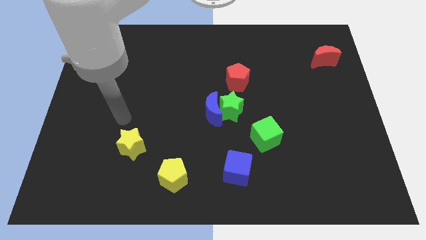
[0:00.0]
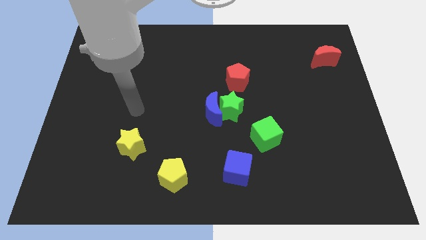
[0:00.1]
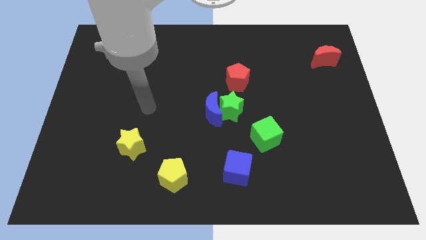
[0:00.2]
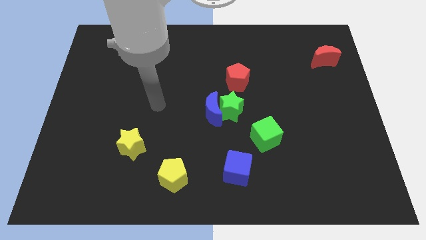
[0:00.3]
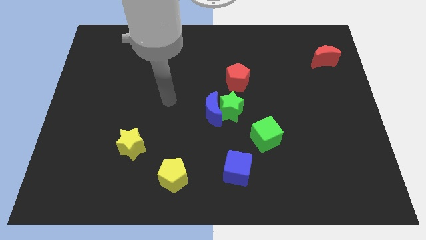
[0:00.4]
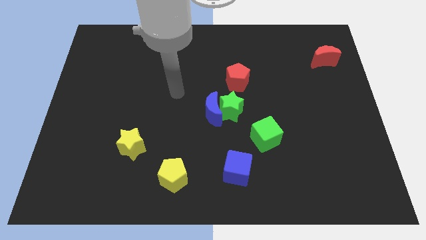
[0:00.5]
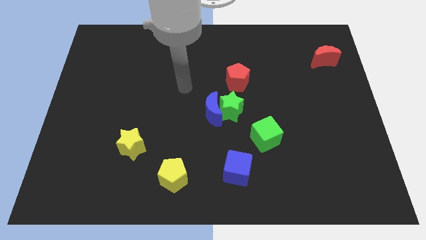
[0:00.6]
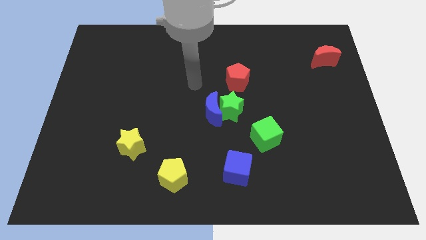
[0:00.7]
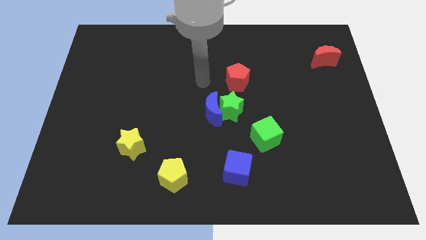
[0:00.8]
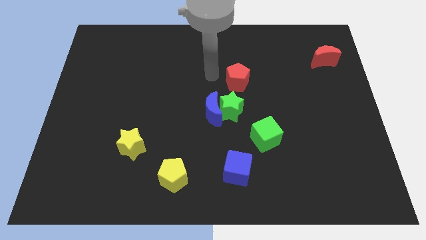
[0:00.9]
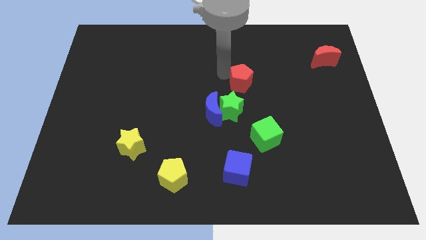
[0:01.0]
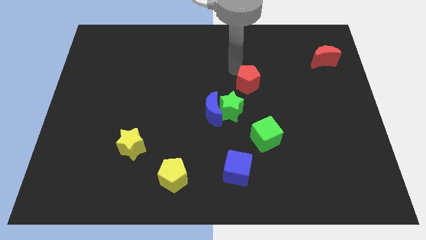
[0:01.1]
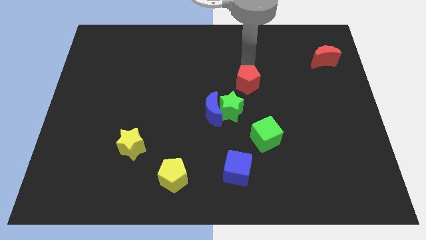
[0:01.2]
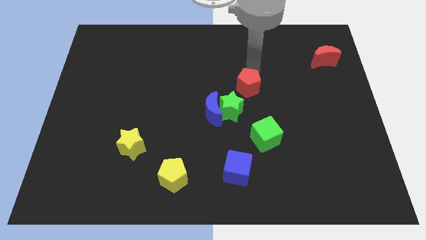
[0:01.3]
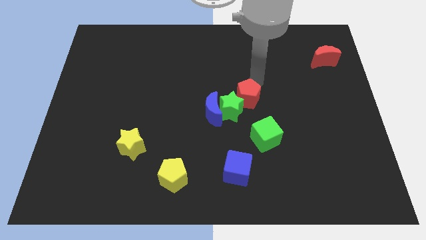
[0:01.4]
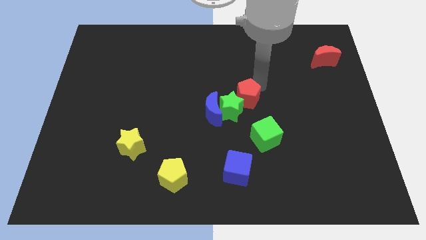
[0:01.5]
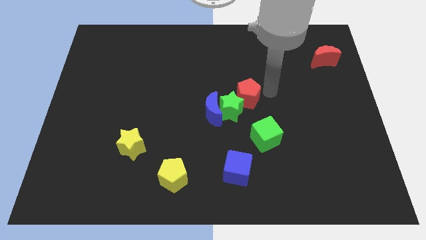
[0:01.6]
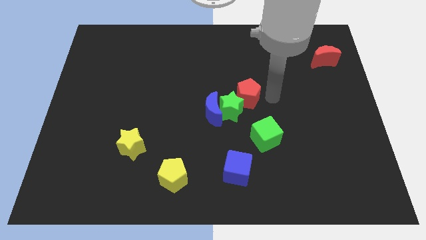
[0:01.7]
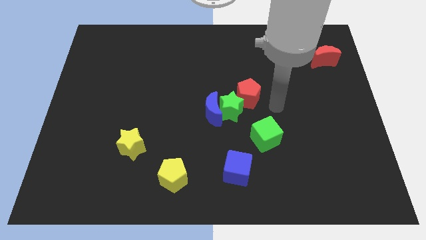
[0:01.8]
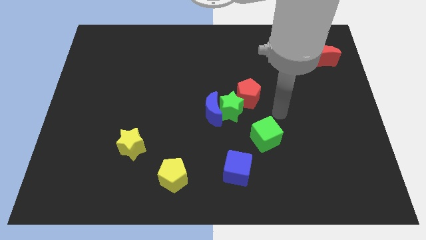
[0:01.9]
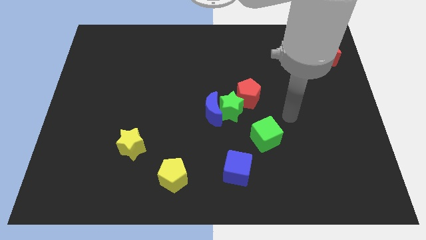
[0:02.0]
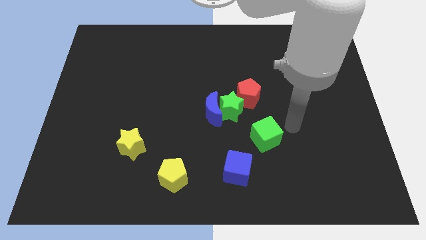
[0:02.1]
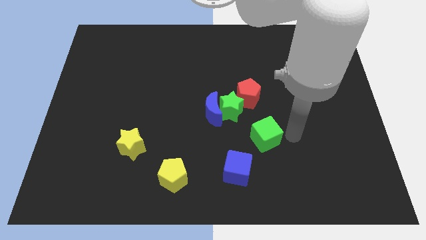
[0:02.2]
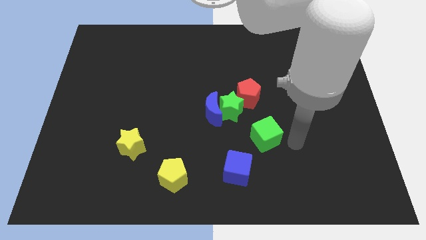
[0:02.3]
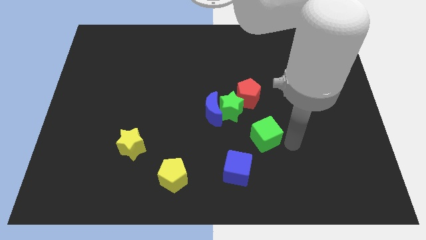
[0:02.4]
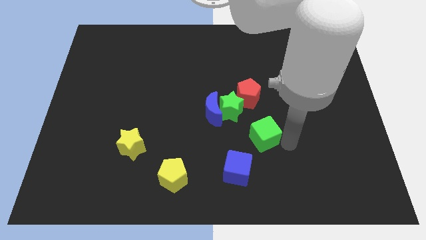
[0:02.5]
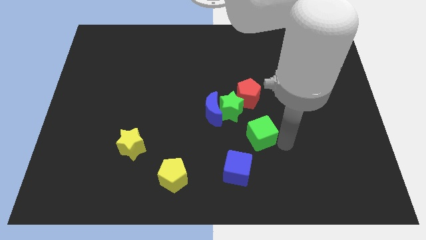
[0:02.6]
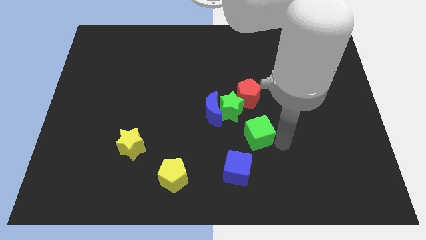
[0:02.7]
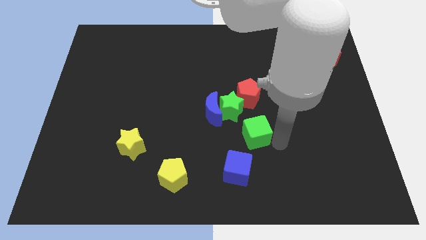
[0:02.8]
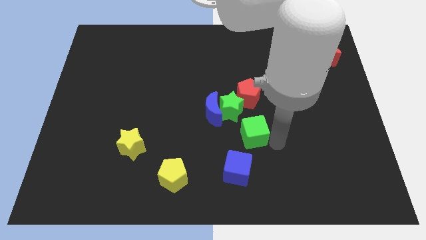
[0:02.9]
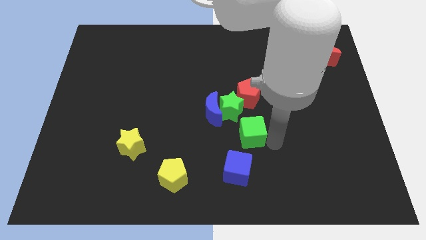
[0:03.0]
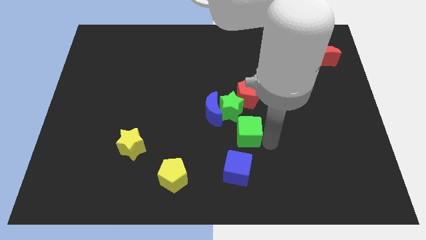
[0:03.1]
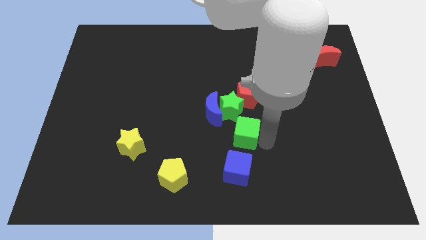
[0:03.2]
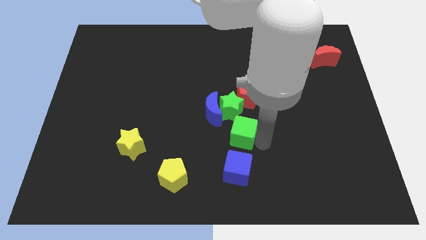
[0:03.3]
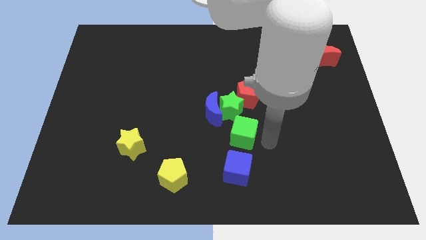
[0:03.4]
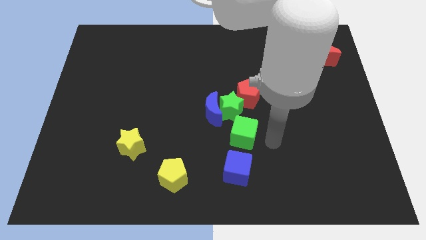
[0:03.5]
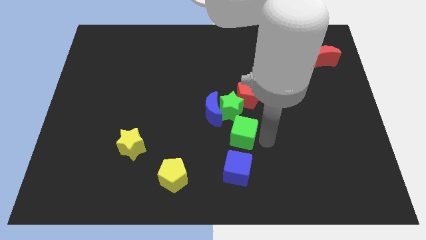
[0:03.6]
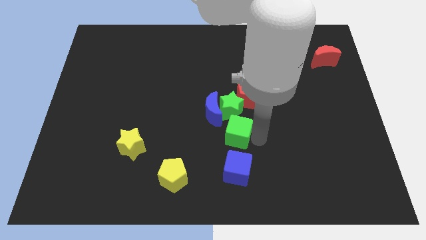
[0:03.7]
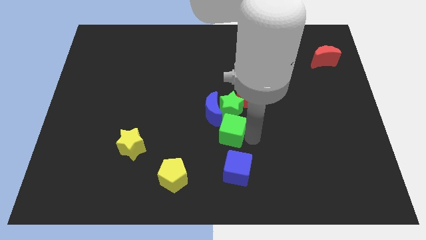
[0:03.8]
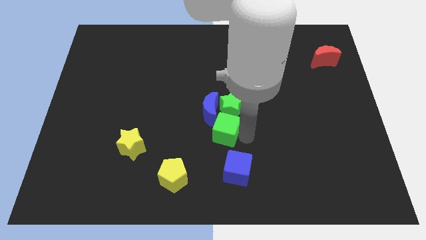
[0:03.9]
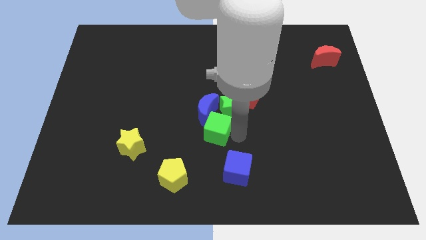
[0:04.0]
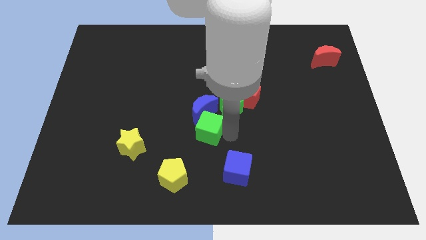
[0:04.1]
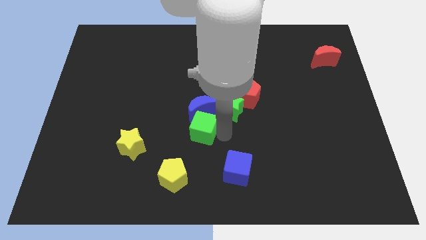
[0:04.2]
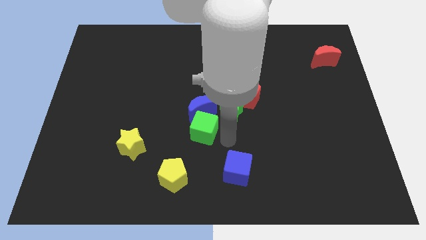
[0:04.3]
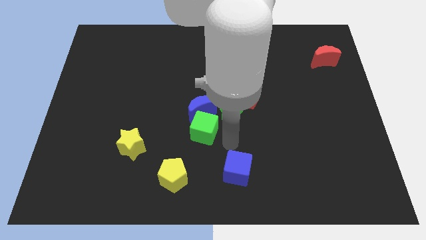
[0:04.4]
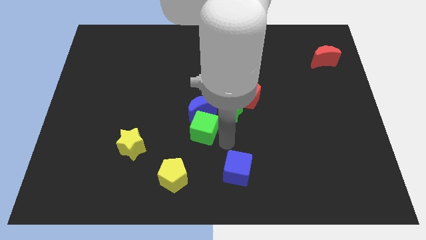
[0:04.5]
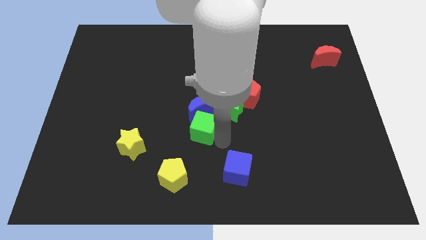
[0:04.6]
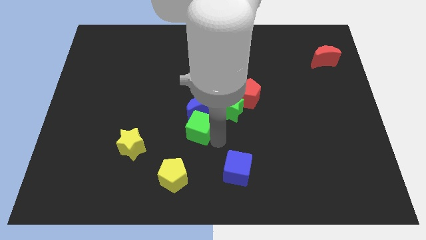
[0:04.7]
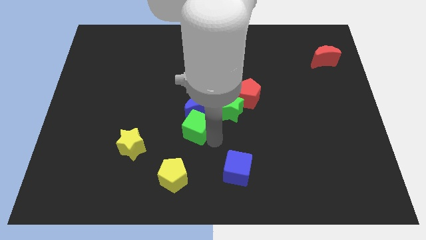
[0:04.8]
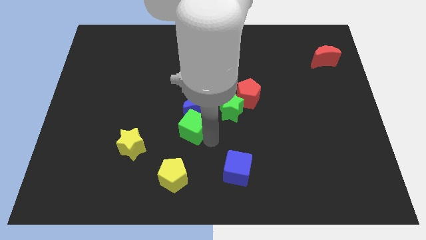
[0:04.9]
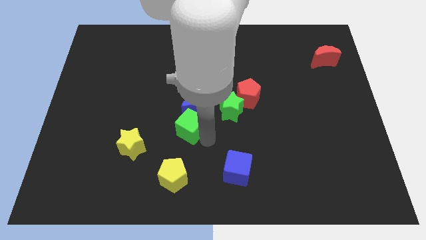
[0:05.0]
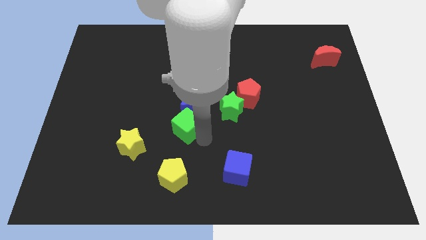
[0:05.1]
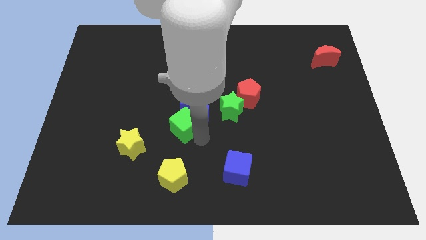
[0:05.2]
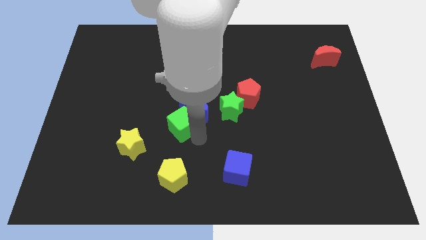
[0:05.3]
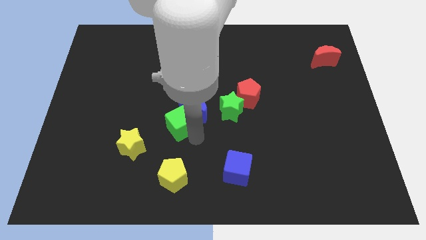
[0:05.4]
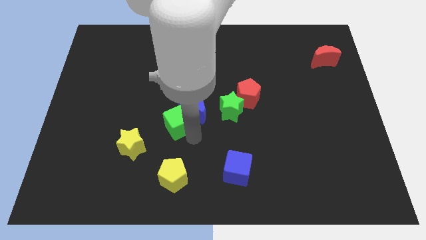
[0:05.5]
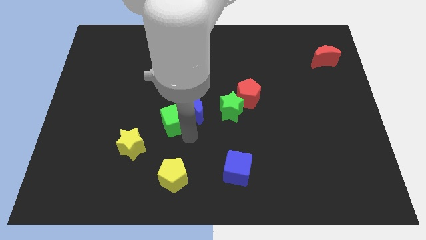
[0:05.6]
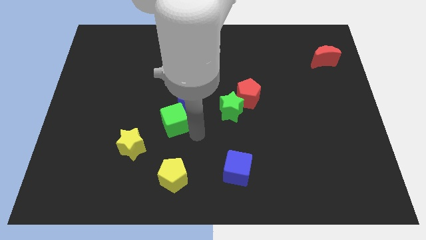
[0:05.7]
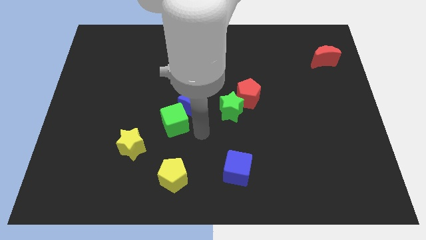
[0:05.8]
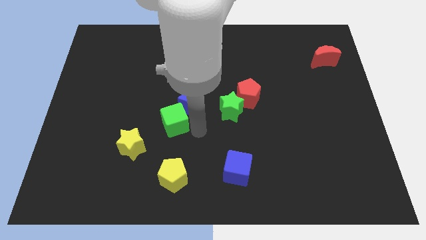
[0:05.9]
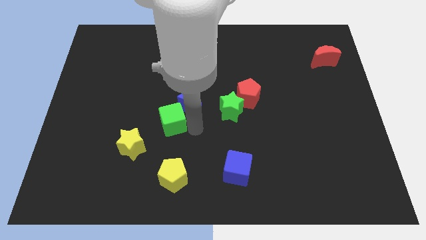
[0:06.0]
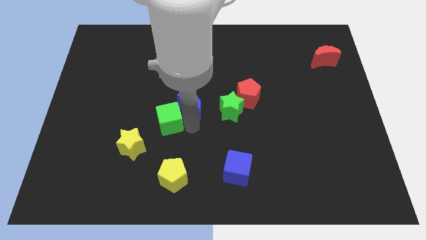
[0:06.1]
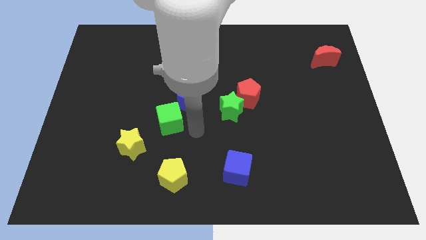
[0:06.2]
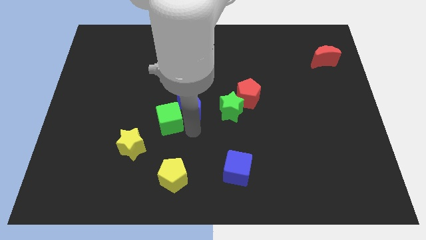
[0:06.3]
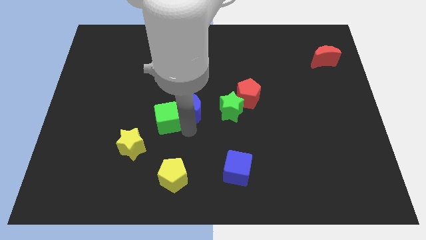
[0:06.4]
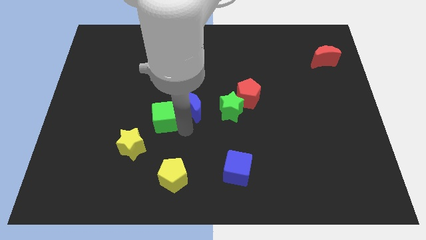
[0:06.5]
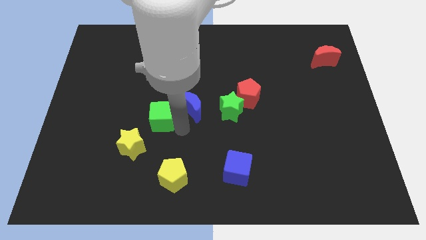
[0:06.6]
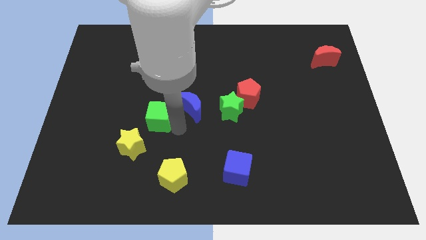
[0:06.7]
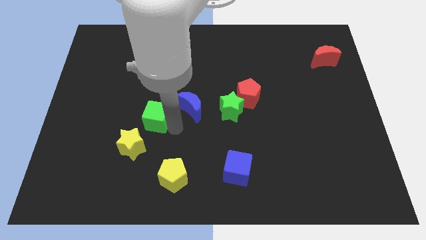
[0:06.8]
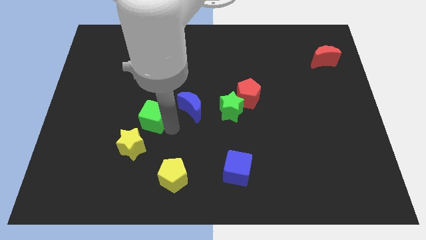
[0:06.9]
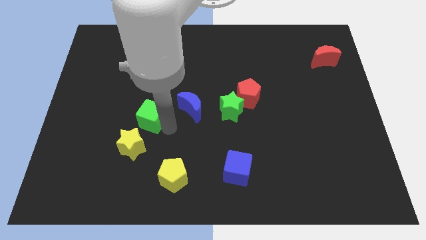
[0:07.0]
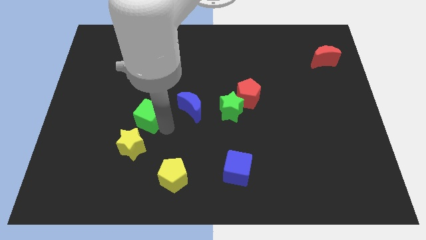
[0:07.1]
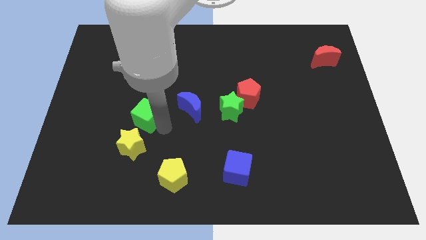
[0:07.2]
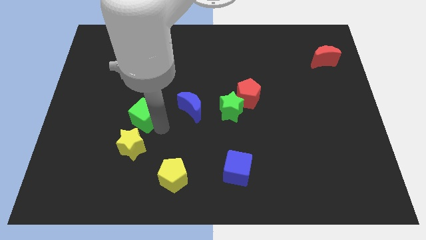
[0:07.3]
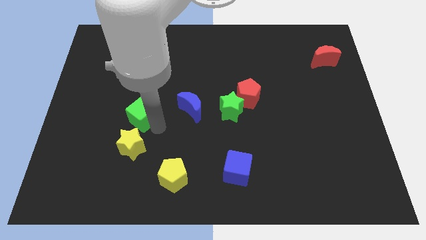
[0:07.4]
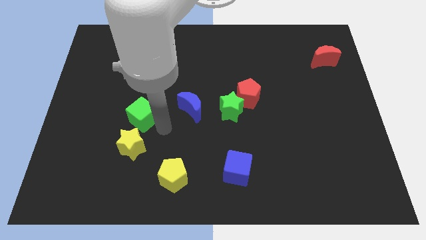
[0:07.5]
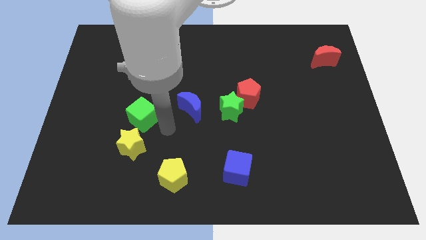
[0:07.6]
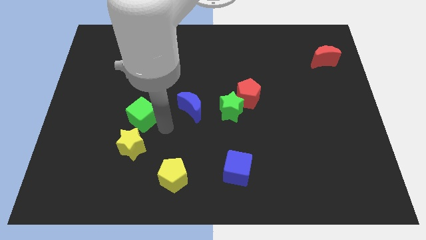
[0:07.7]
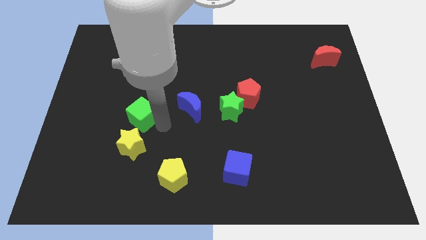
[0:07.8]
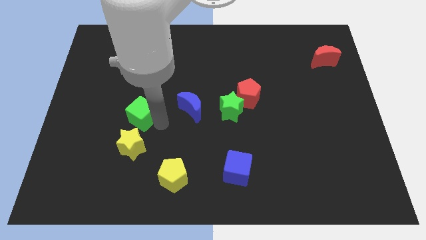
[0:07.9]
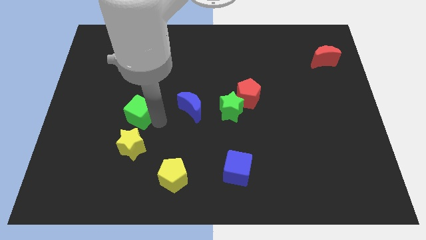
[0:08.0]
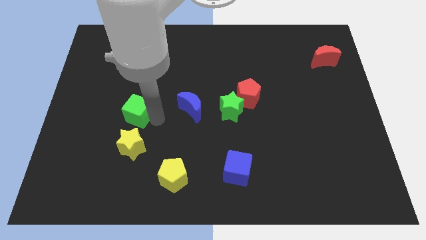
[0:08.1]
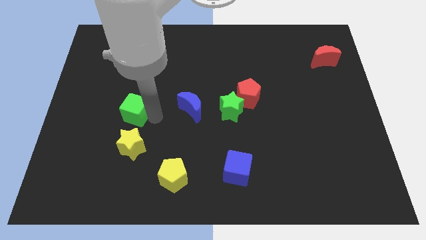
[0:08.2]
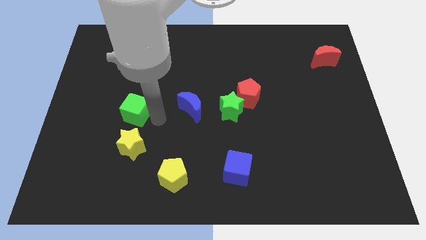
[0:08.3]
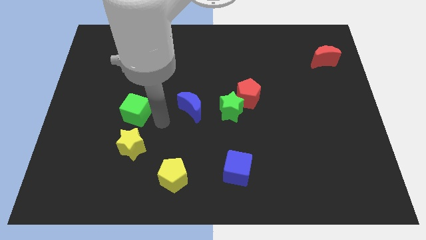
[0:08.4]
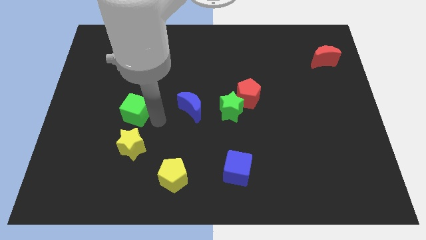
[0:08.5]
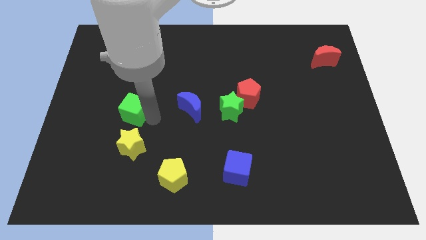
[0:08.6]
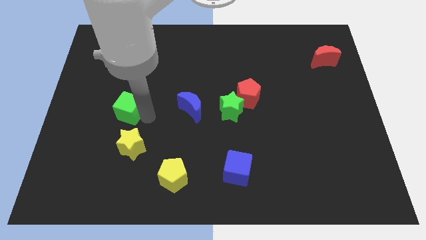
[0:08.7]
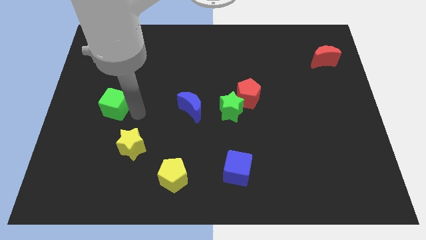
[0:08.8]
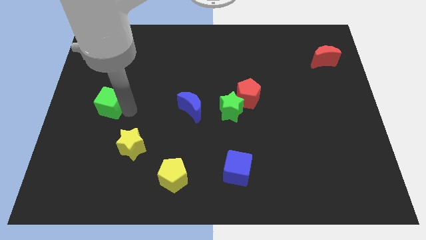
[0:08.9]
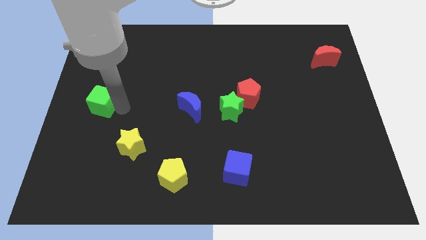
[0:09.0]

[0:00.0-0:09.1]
push the green cube to the left side of the board
